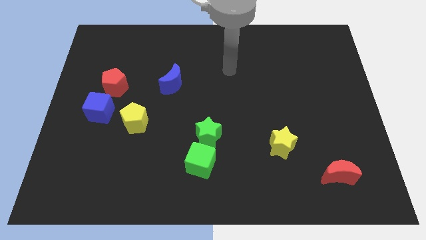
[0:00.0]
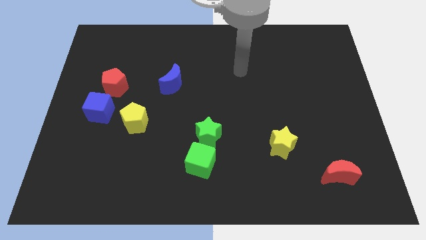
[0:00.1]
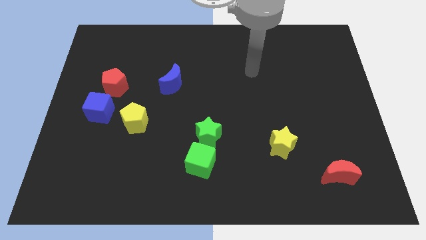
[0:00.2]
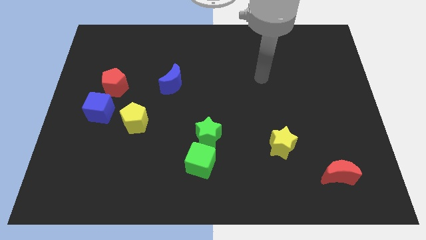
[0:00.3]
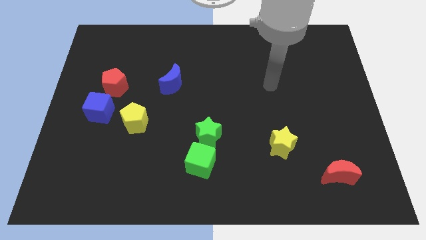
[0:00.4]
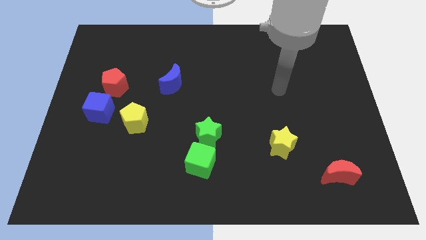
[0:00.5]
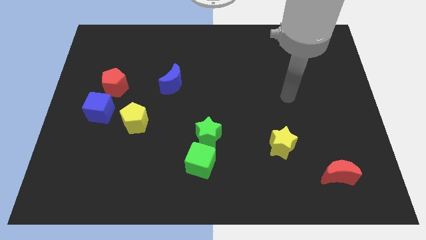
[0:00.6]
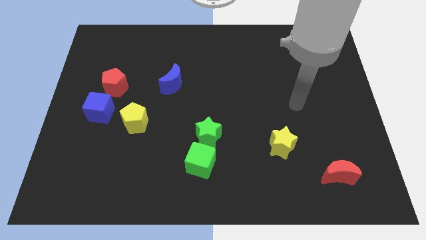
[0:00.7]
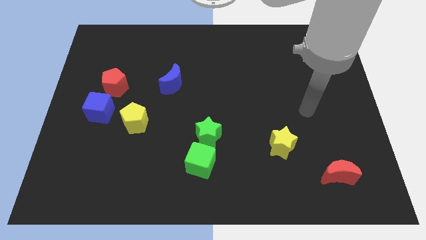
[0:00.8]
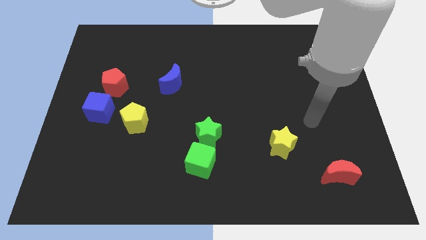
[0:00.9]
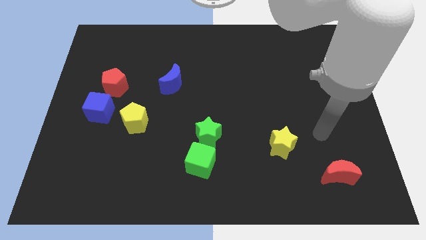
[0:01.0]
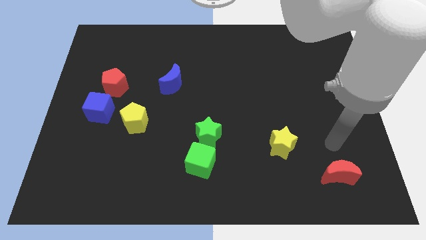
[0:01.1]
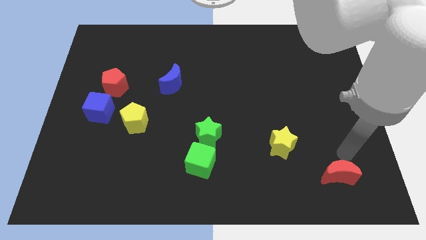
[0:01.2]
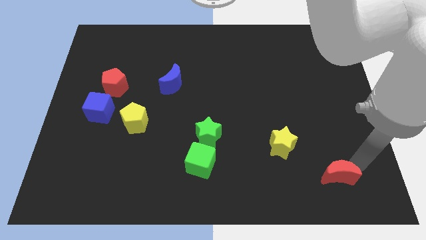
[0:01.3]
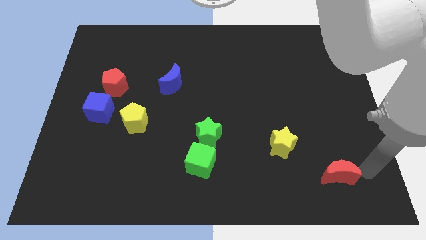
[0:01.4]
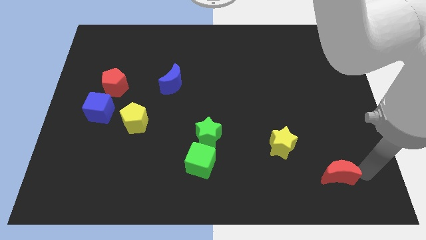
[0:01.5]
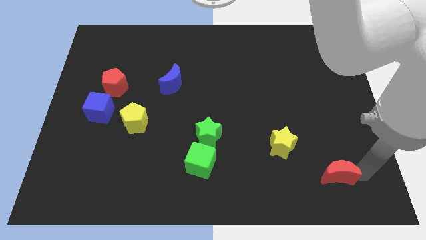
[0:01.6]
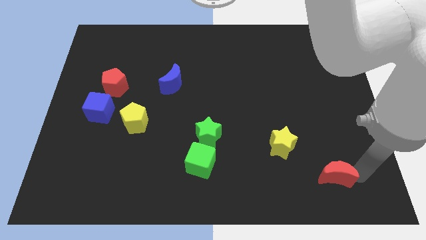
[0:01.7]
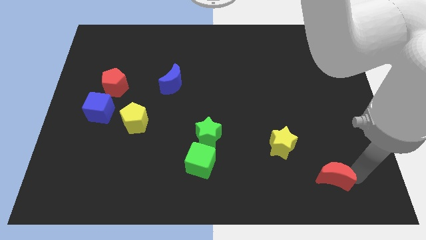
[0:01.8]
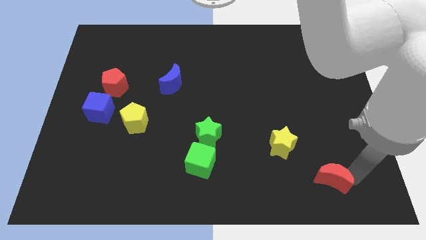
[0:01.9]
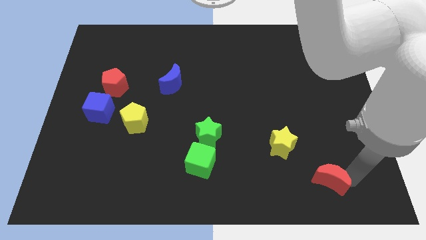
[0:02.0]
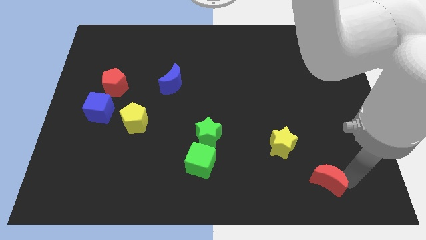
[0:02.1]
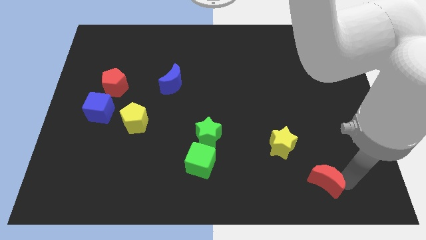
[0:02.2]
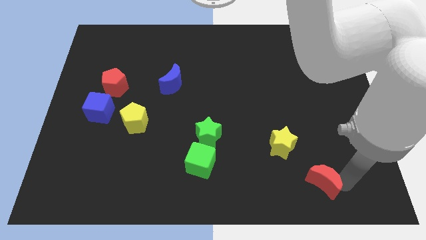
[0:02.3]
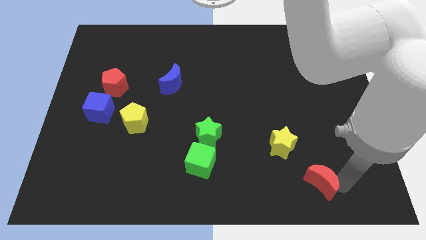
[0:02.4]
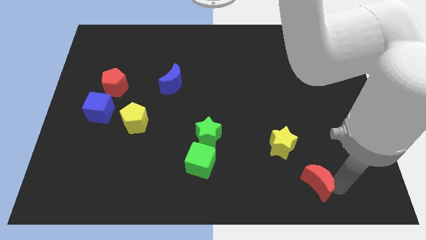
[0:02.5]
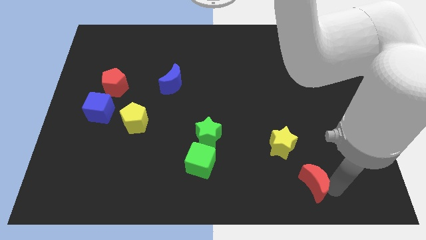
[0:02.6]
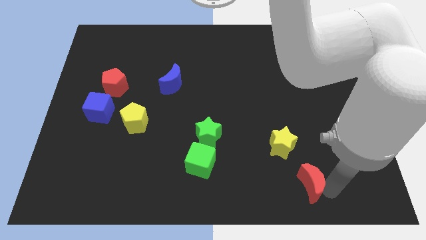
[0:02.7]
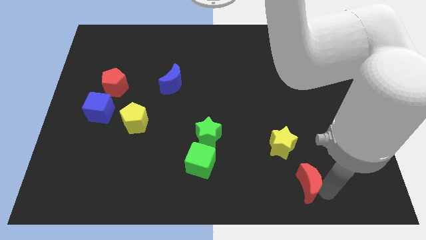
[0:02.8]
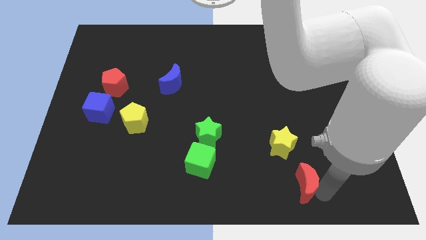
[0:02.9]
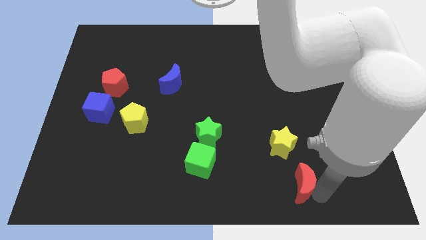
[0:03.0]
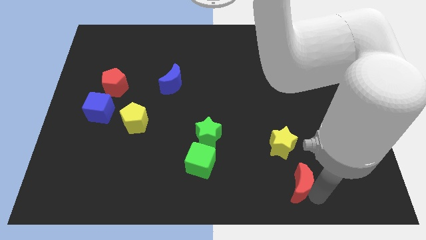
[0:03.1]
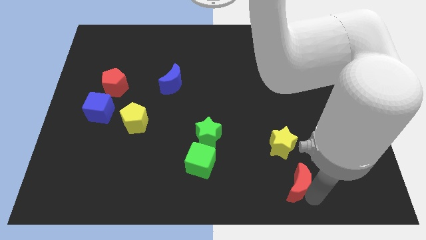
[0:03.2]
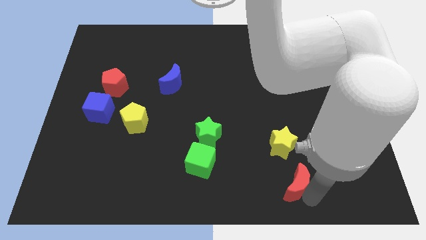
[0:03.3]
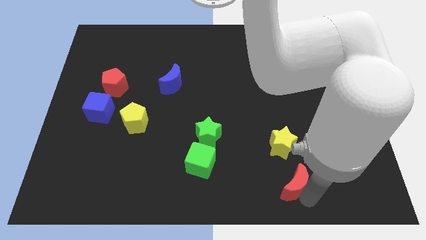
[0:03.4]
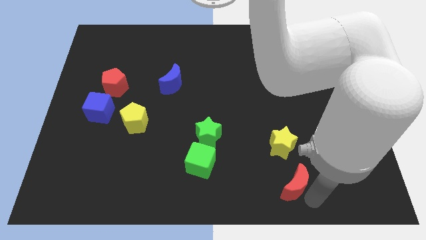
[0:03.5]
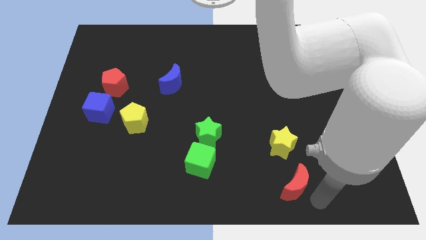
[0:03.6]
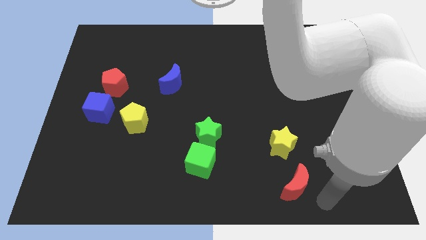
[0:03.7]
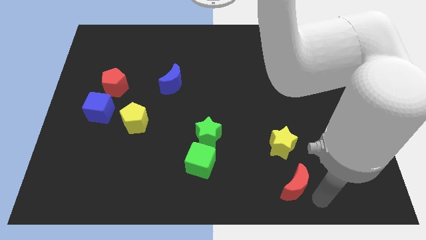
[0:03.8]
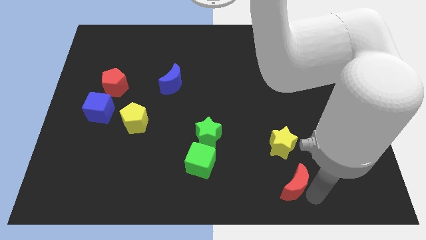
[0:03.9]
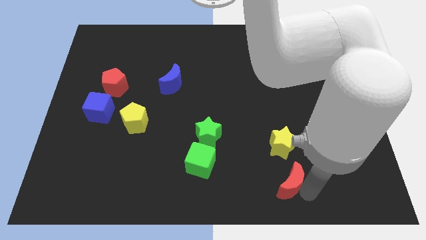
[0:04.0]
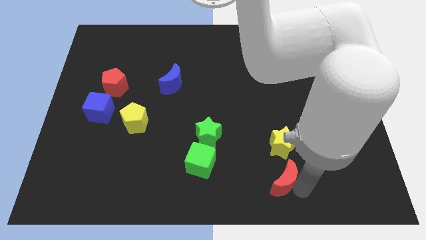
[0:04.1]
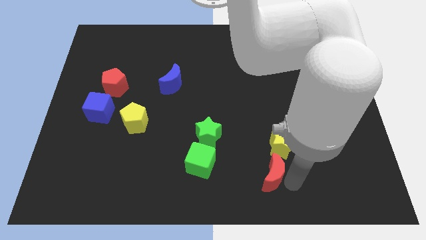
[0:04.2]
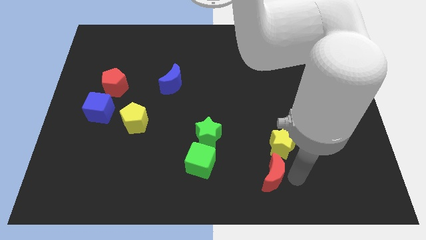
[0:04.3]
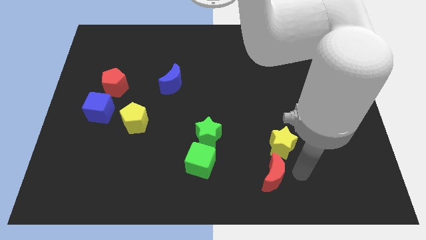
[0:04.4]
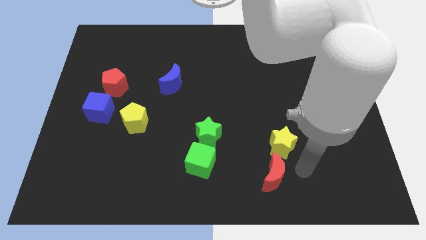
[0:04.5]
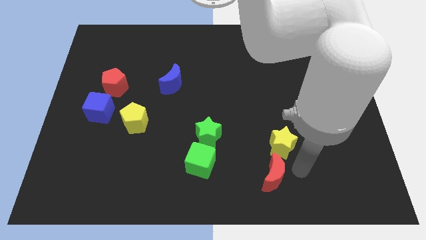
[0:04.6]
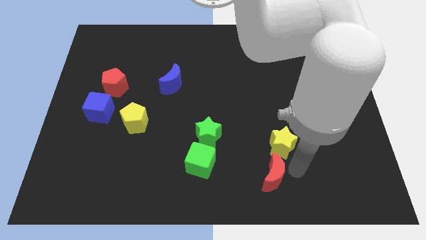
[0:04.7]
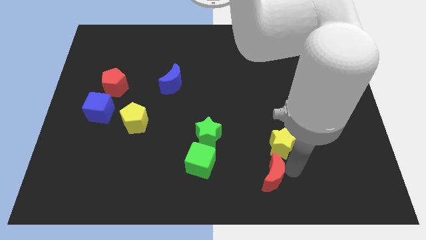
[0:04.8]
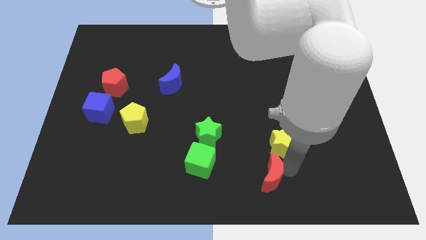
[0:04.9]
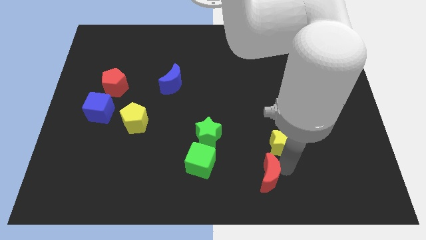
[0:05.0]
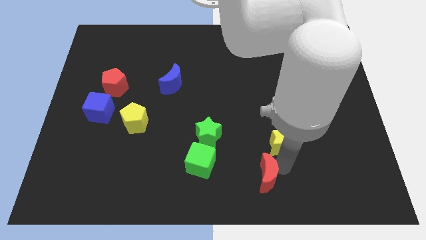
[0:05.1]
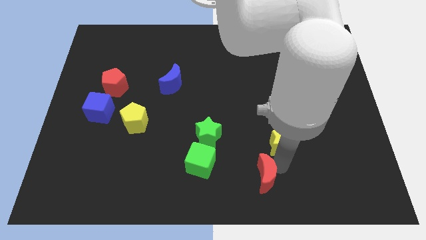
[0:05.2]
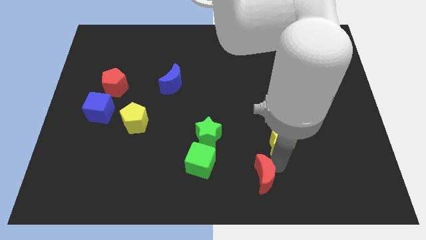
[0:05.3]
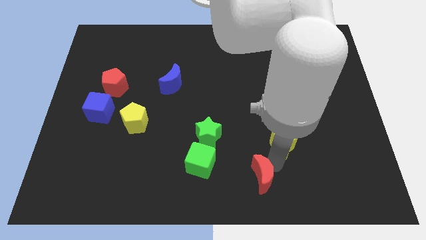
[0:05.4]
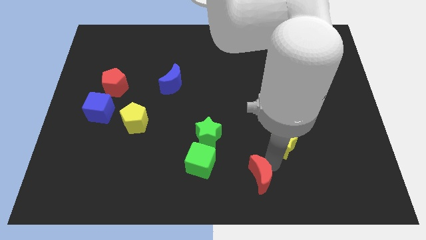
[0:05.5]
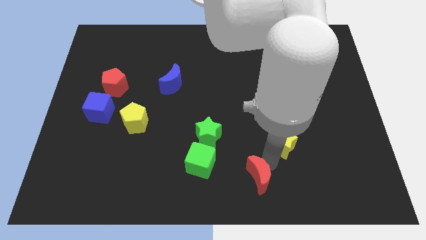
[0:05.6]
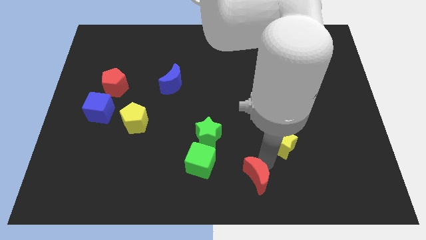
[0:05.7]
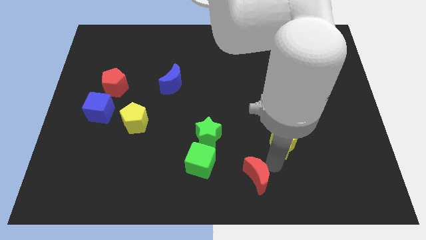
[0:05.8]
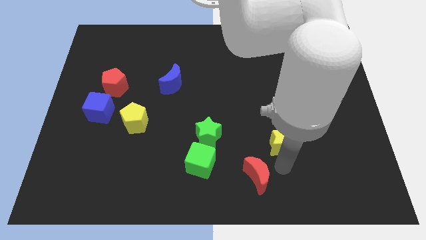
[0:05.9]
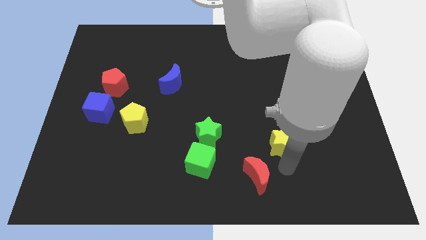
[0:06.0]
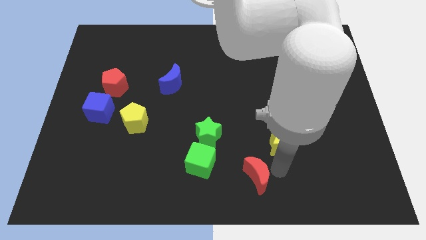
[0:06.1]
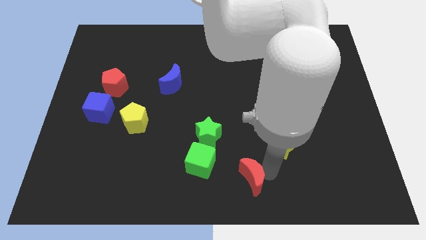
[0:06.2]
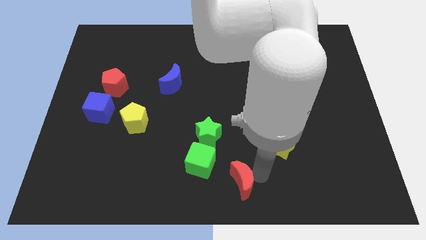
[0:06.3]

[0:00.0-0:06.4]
move the red moon to the left

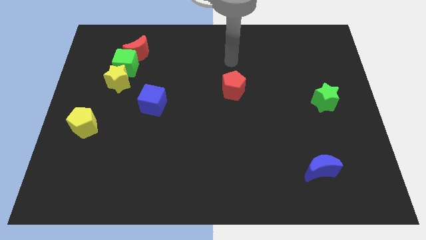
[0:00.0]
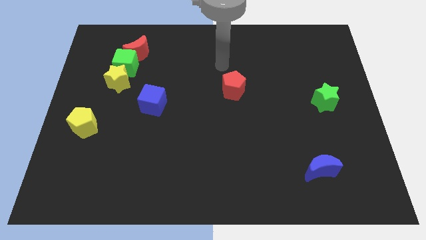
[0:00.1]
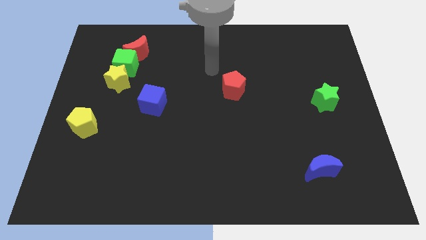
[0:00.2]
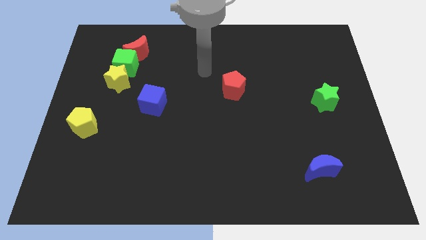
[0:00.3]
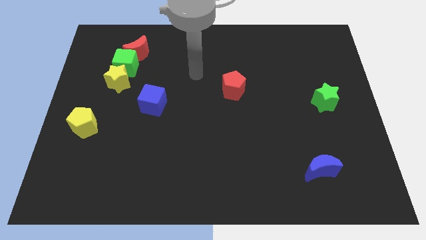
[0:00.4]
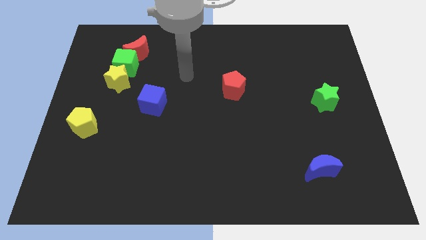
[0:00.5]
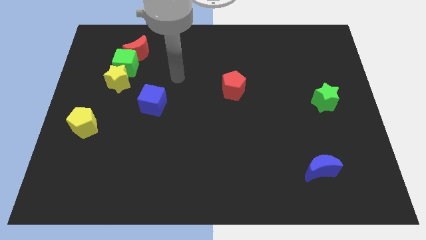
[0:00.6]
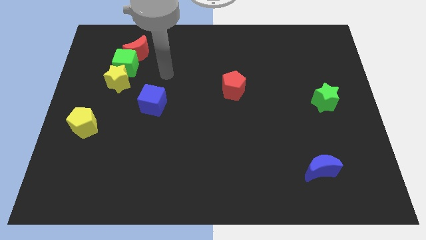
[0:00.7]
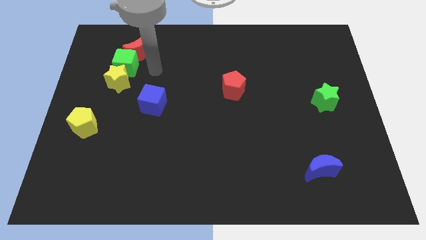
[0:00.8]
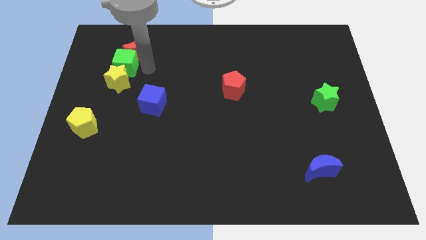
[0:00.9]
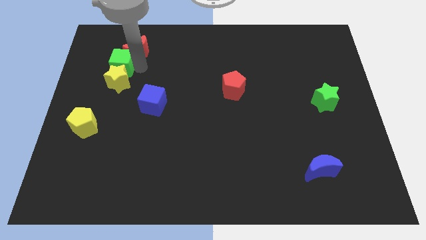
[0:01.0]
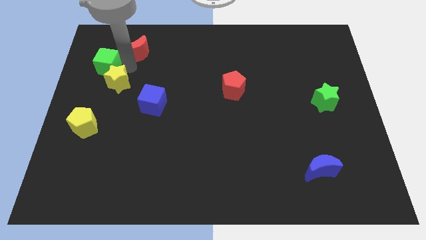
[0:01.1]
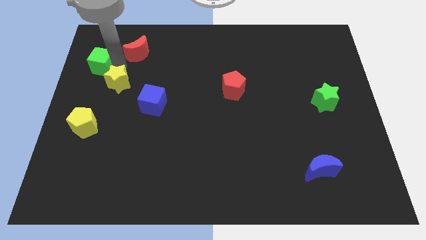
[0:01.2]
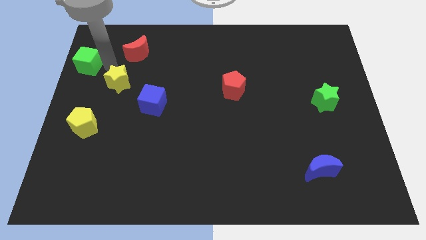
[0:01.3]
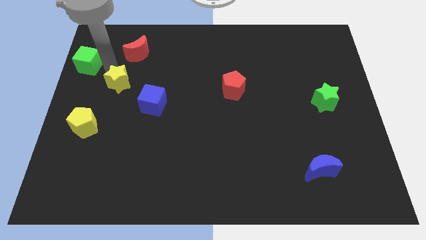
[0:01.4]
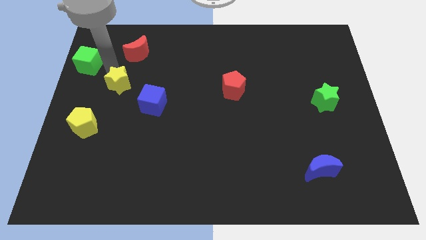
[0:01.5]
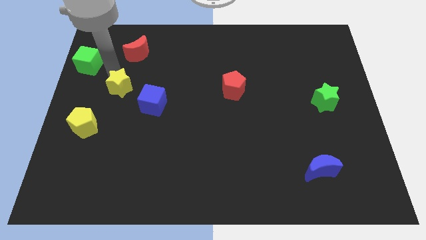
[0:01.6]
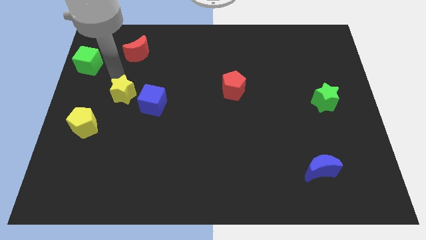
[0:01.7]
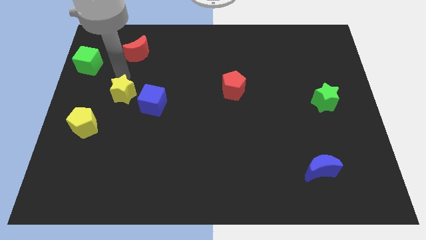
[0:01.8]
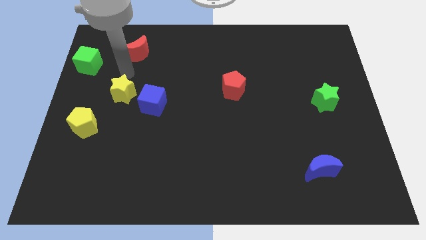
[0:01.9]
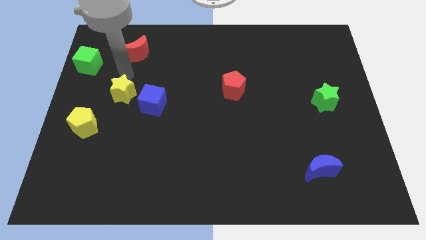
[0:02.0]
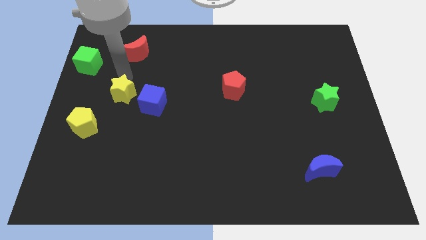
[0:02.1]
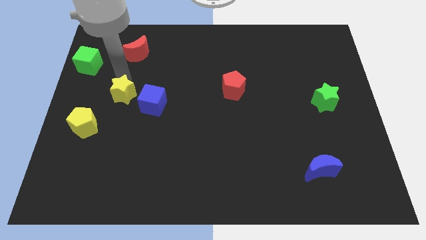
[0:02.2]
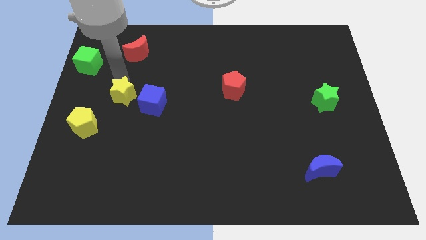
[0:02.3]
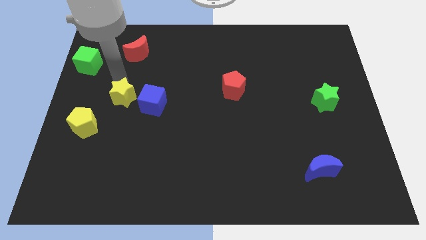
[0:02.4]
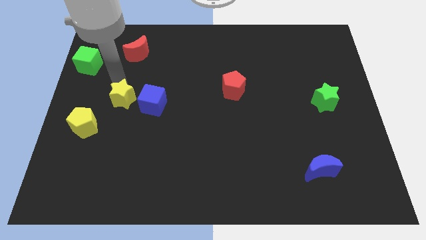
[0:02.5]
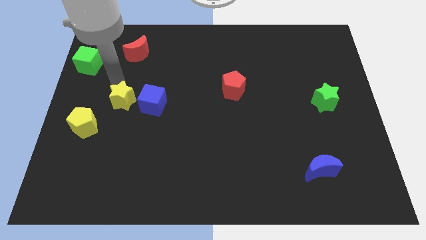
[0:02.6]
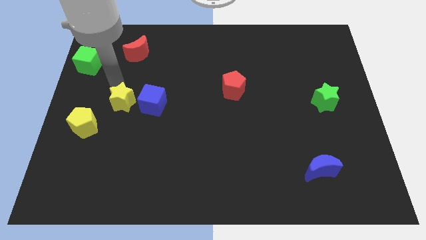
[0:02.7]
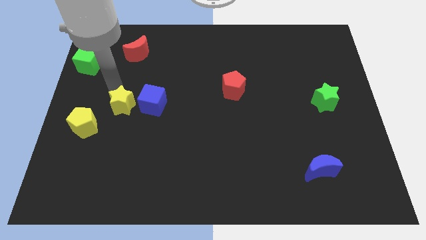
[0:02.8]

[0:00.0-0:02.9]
move the yellow star down somewhat
